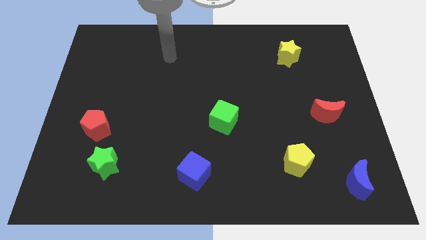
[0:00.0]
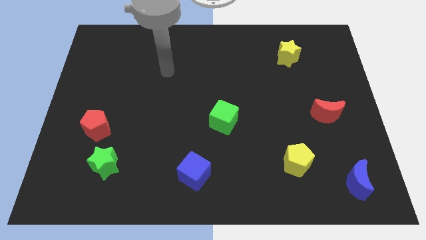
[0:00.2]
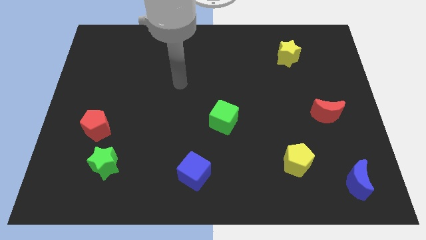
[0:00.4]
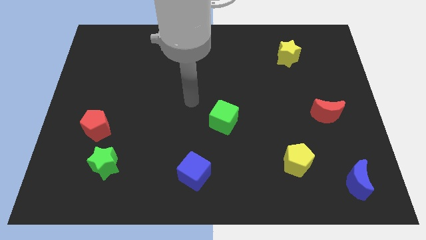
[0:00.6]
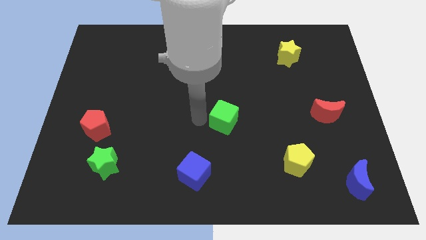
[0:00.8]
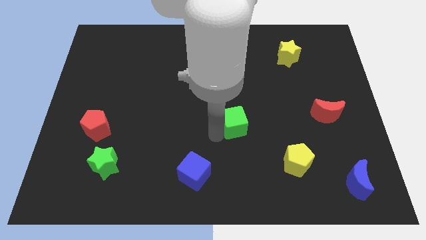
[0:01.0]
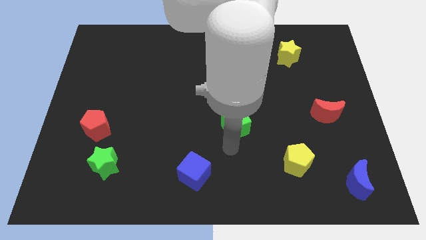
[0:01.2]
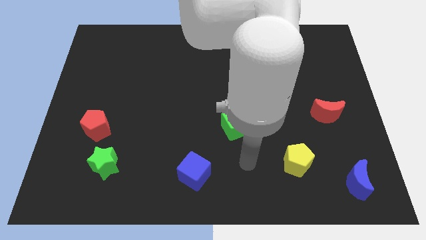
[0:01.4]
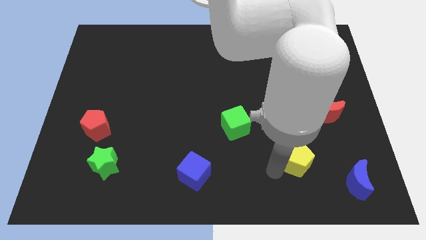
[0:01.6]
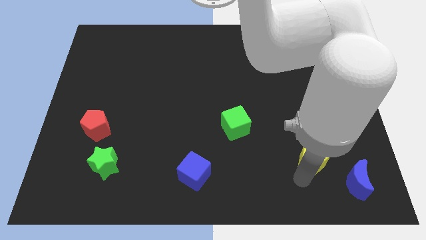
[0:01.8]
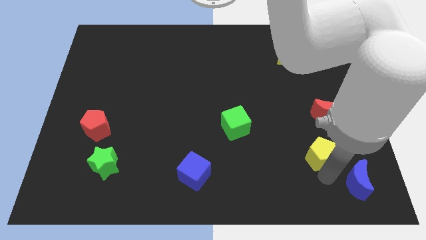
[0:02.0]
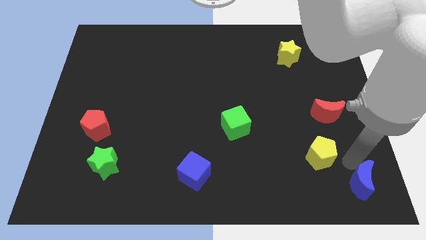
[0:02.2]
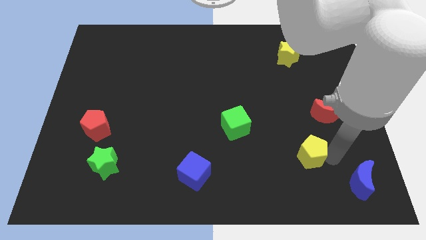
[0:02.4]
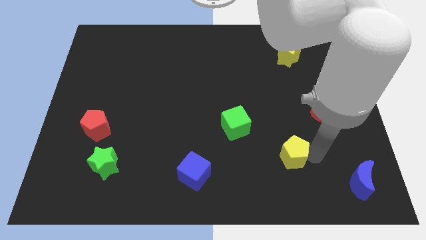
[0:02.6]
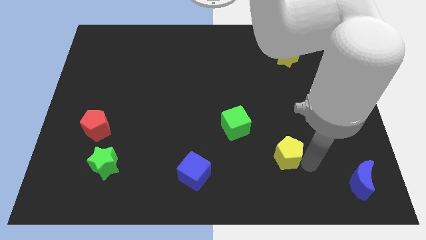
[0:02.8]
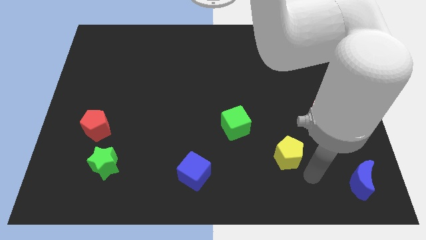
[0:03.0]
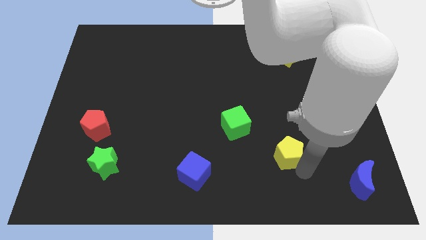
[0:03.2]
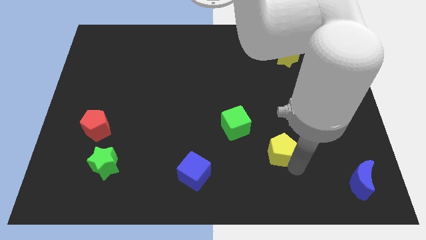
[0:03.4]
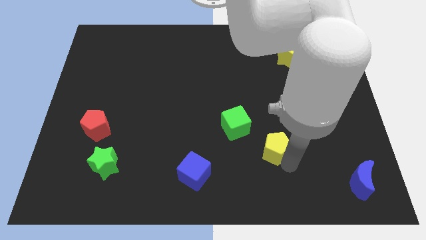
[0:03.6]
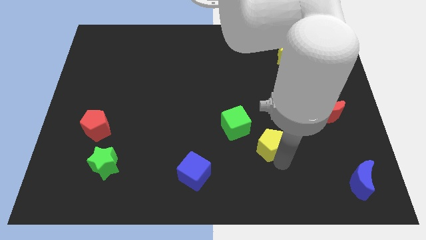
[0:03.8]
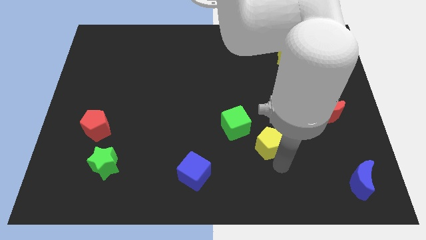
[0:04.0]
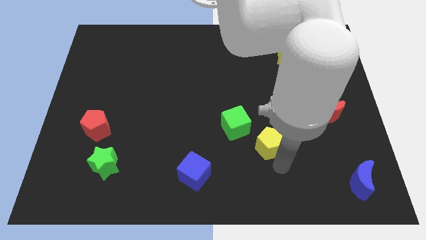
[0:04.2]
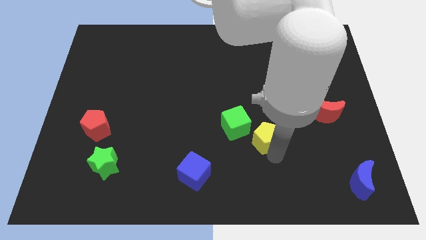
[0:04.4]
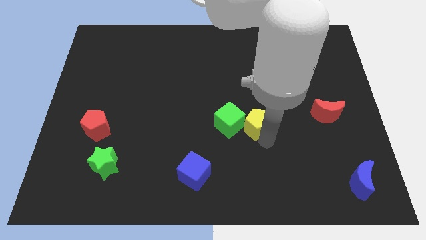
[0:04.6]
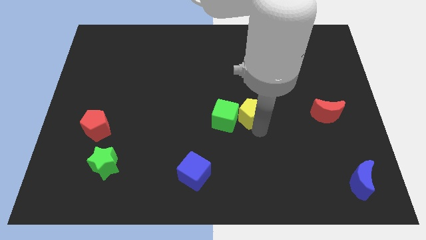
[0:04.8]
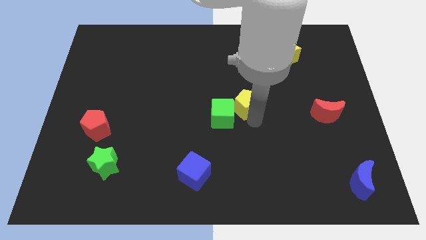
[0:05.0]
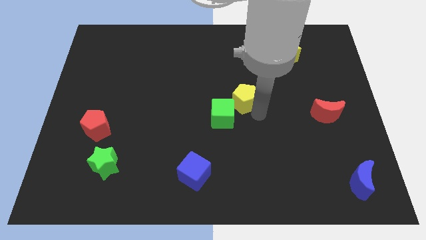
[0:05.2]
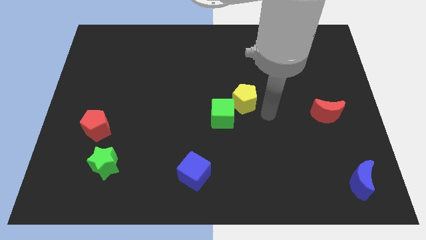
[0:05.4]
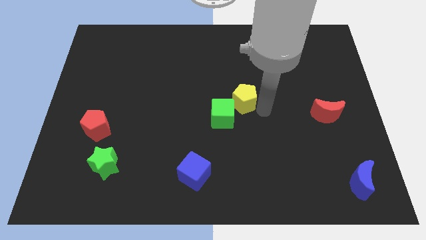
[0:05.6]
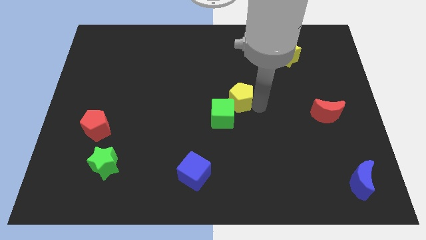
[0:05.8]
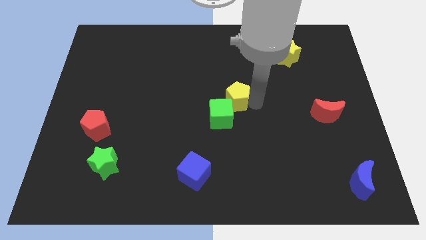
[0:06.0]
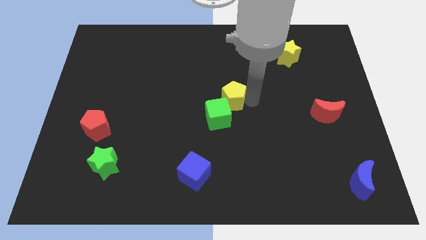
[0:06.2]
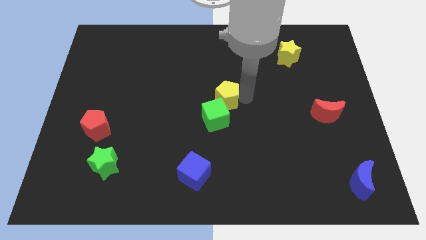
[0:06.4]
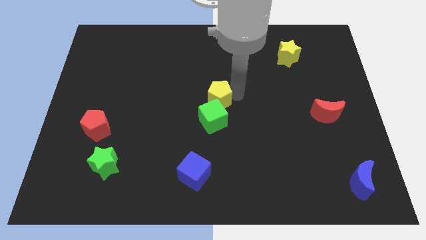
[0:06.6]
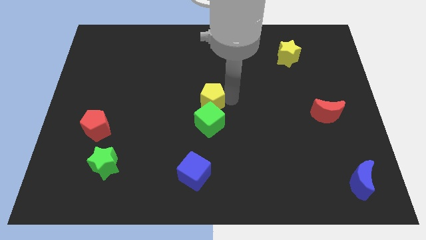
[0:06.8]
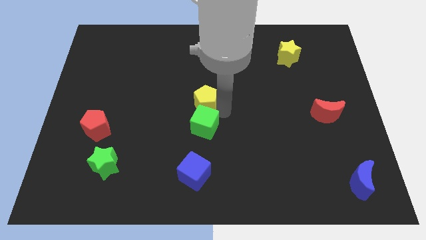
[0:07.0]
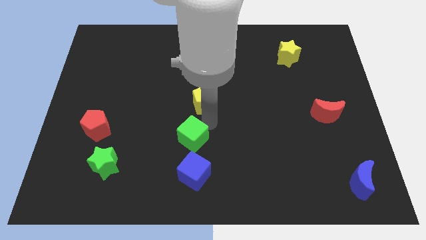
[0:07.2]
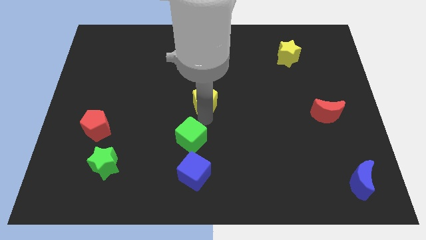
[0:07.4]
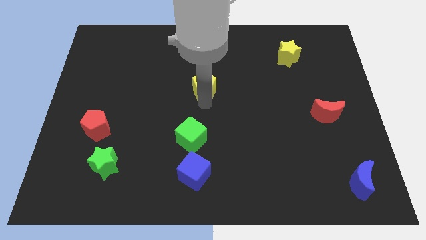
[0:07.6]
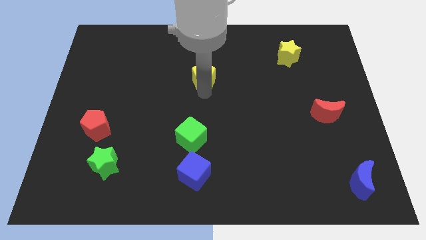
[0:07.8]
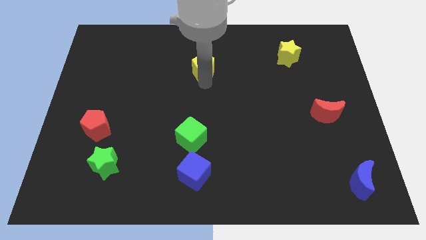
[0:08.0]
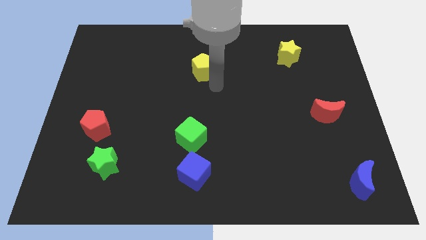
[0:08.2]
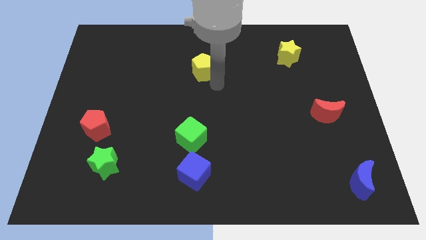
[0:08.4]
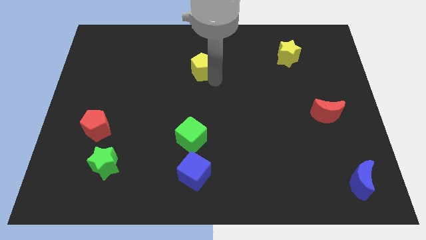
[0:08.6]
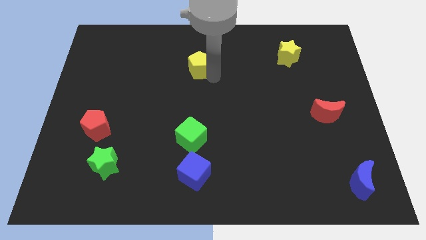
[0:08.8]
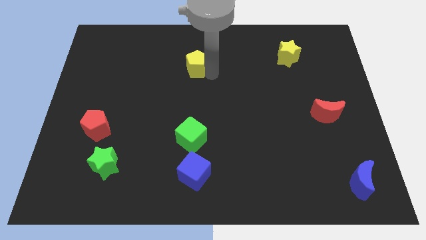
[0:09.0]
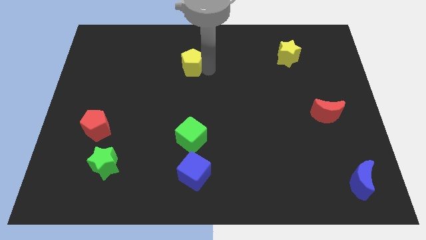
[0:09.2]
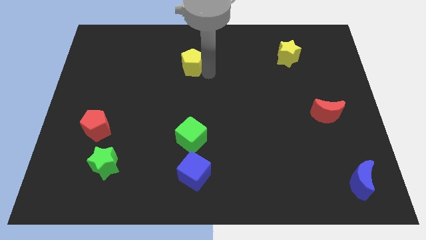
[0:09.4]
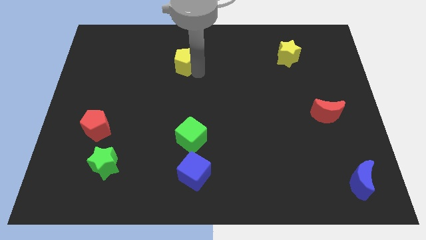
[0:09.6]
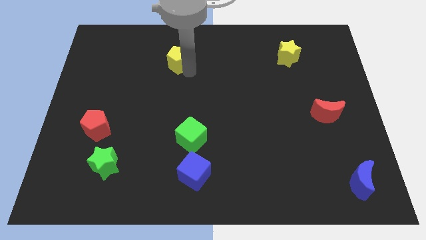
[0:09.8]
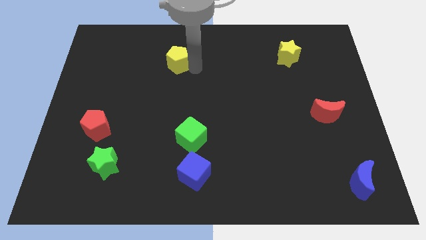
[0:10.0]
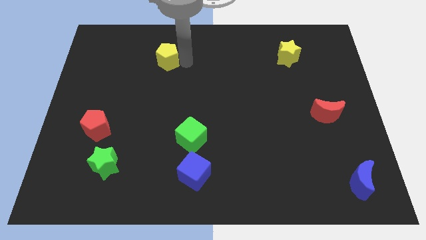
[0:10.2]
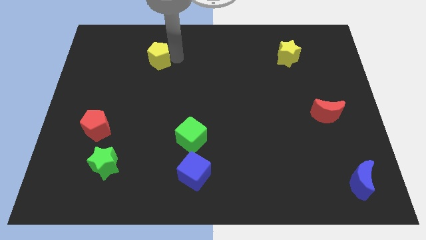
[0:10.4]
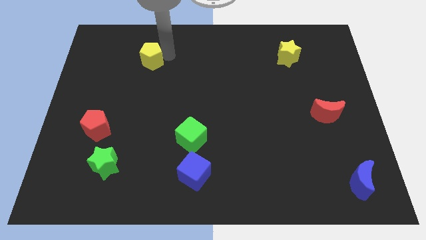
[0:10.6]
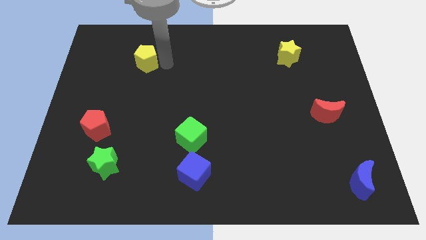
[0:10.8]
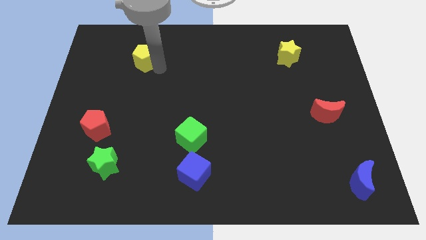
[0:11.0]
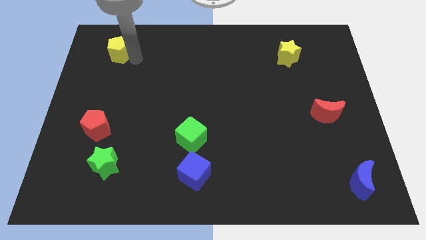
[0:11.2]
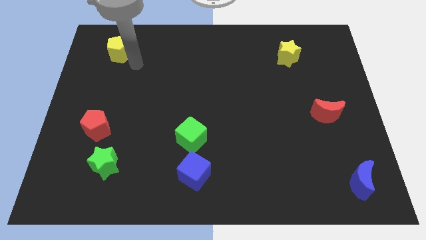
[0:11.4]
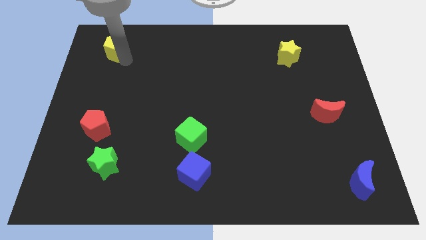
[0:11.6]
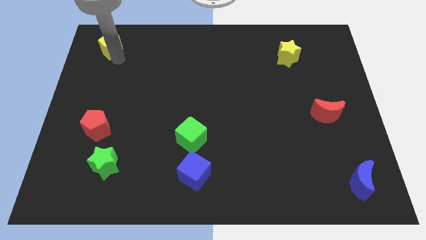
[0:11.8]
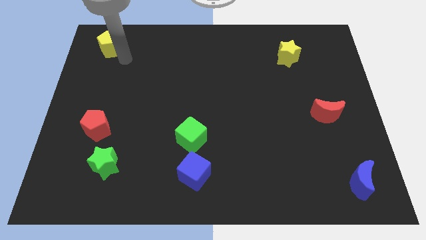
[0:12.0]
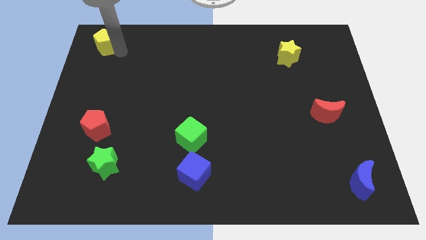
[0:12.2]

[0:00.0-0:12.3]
push the yellow pentagon to the top left
